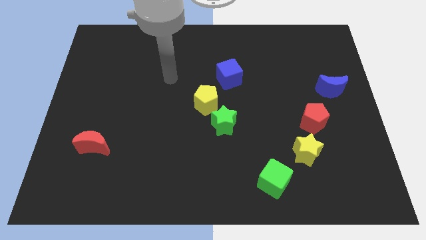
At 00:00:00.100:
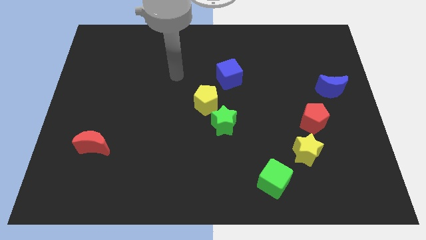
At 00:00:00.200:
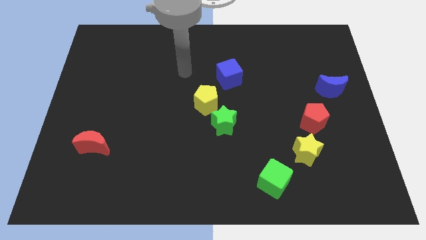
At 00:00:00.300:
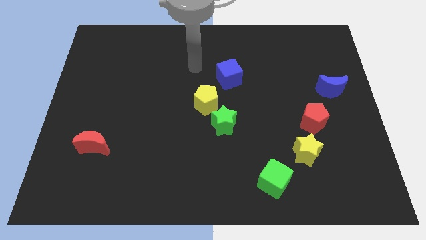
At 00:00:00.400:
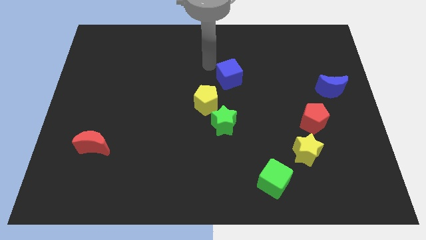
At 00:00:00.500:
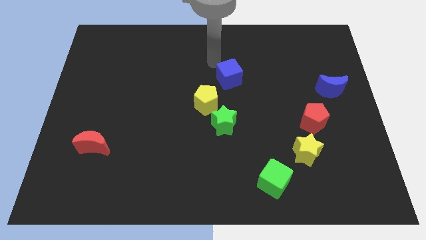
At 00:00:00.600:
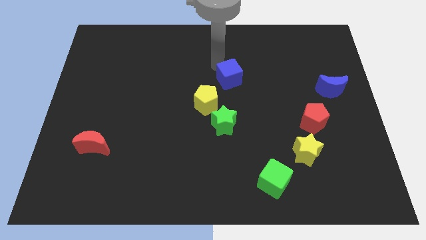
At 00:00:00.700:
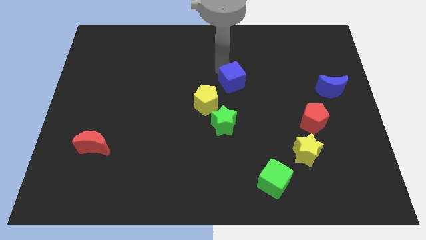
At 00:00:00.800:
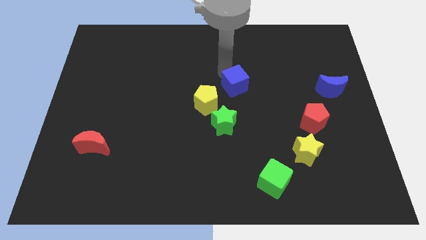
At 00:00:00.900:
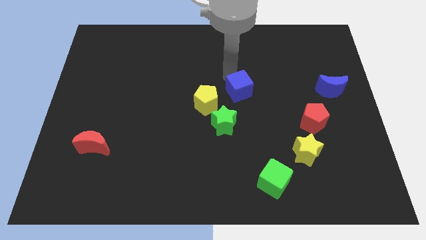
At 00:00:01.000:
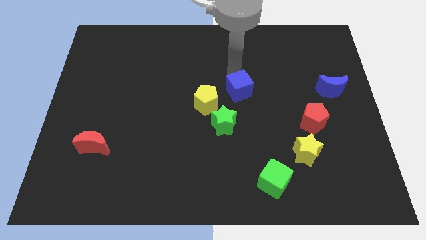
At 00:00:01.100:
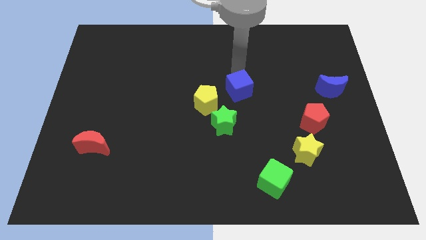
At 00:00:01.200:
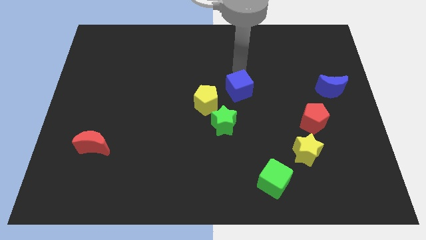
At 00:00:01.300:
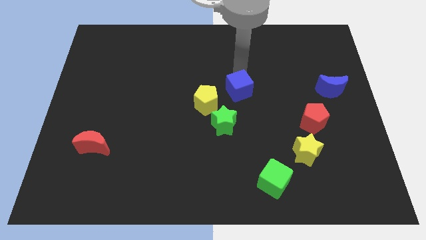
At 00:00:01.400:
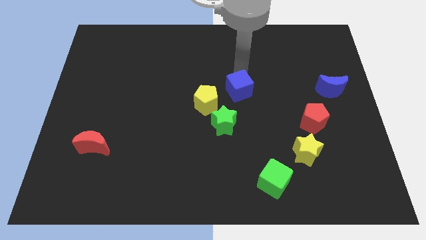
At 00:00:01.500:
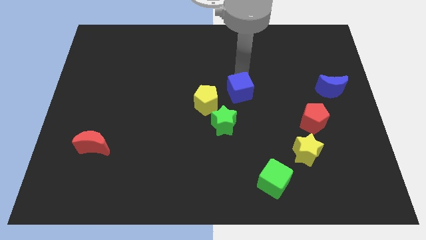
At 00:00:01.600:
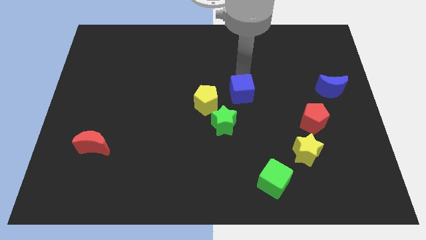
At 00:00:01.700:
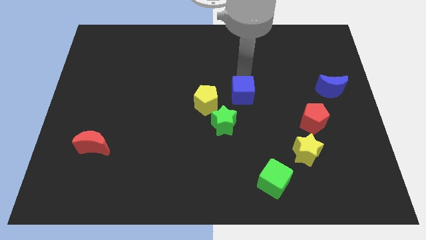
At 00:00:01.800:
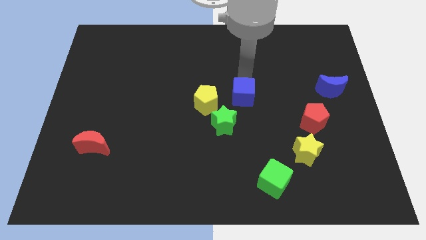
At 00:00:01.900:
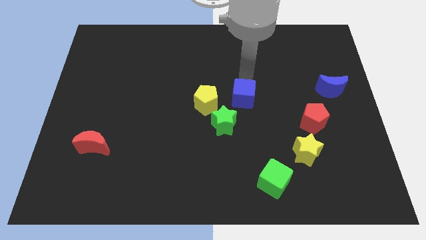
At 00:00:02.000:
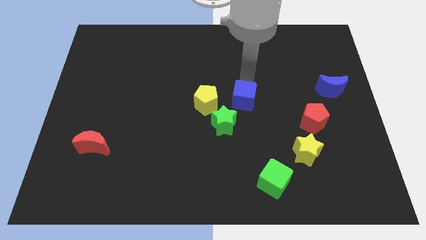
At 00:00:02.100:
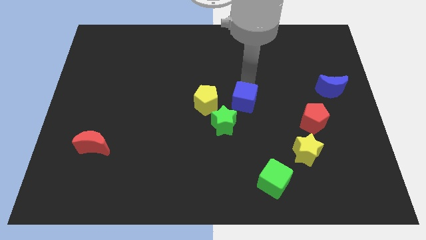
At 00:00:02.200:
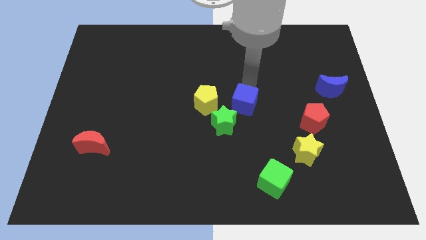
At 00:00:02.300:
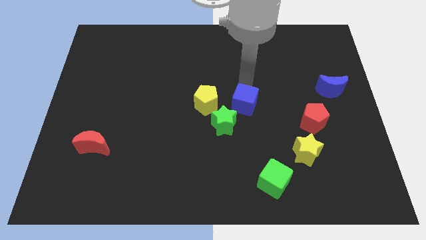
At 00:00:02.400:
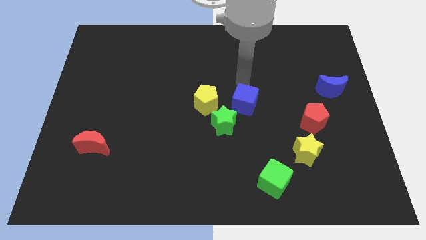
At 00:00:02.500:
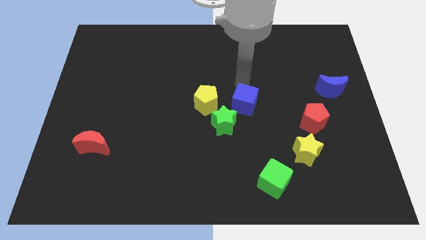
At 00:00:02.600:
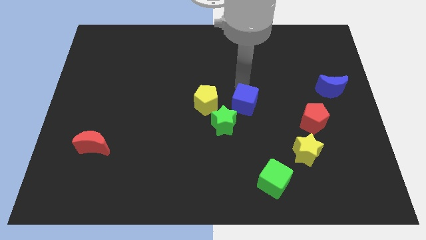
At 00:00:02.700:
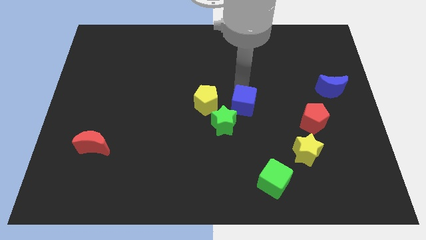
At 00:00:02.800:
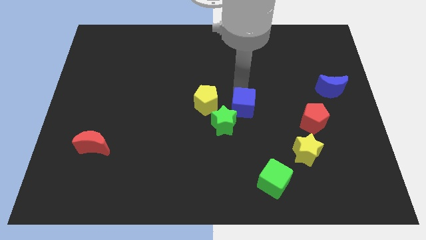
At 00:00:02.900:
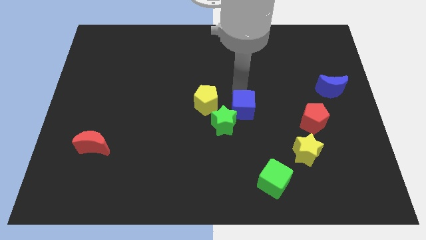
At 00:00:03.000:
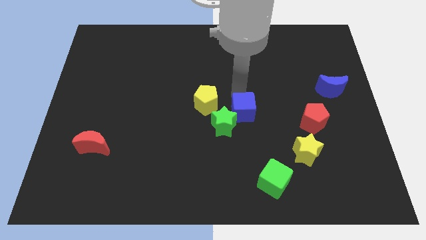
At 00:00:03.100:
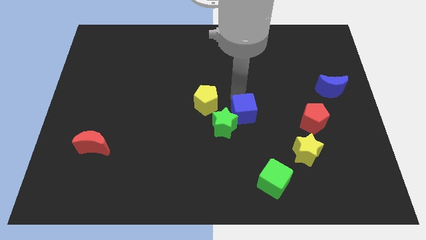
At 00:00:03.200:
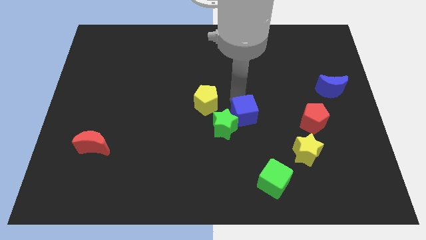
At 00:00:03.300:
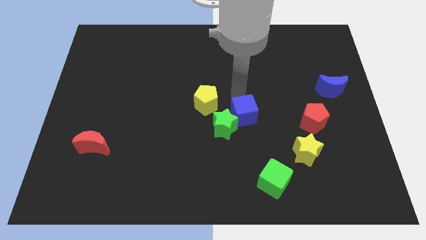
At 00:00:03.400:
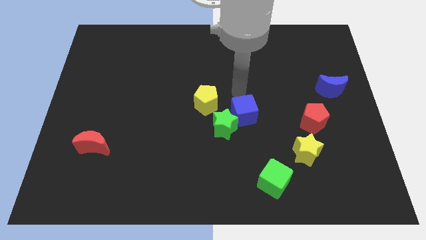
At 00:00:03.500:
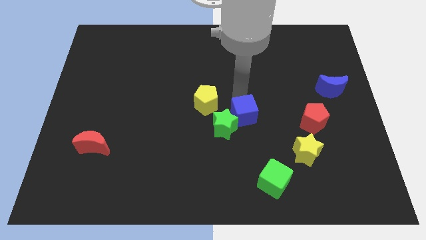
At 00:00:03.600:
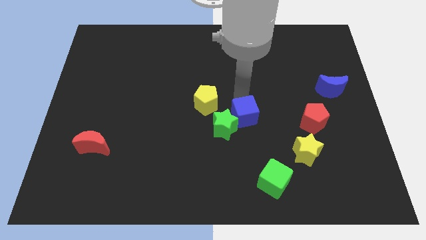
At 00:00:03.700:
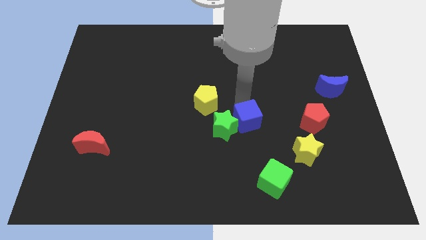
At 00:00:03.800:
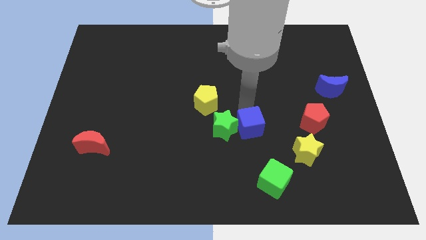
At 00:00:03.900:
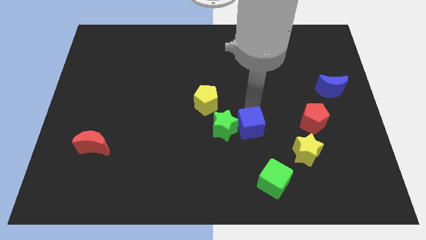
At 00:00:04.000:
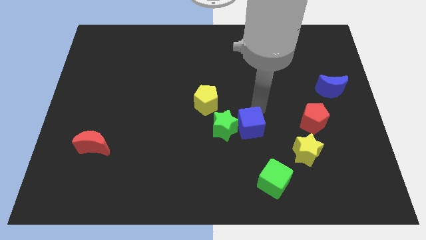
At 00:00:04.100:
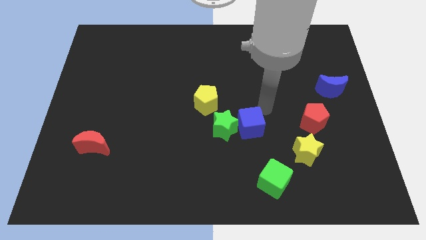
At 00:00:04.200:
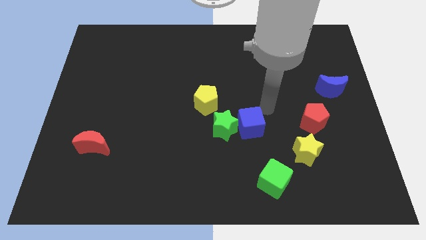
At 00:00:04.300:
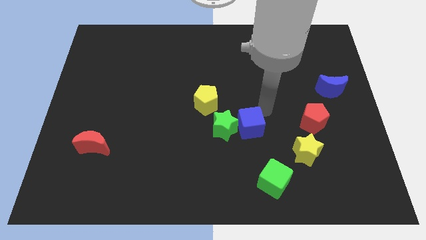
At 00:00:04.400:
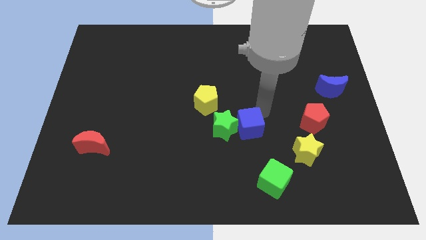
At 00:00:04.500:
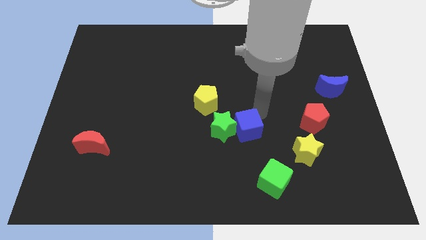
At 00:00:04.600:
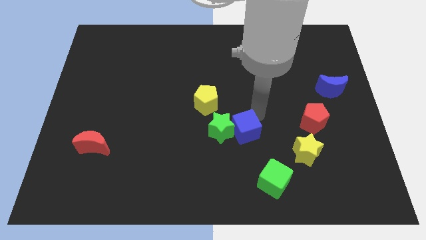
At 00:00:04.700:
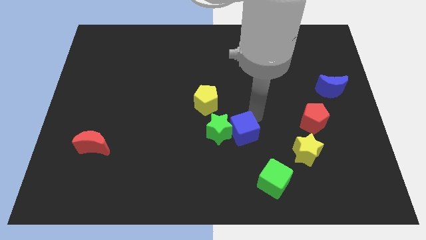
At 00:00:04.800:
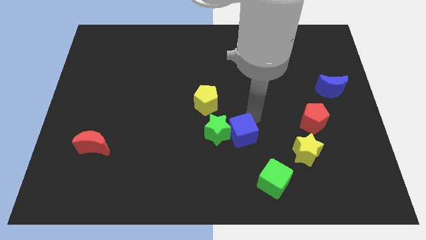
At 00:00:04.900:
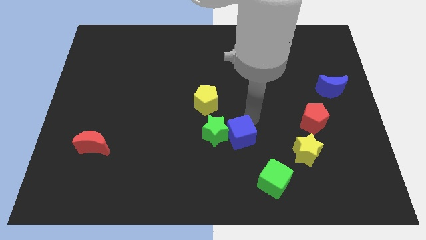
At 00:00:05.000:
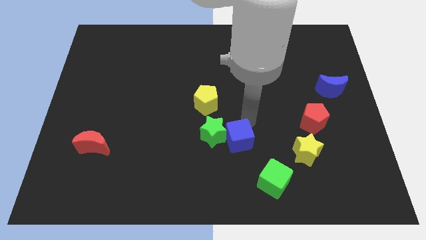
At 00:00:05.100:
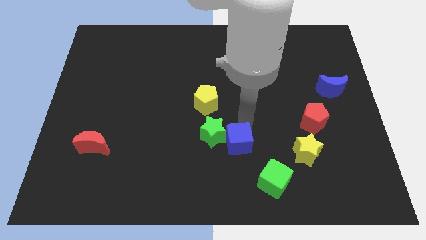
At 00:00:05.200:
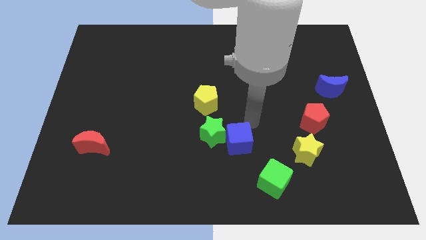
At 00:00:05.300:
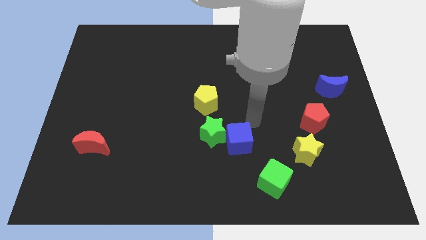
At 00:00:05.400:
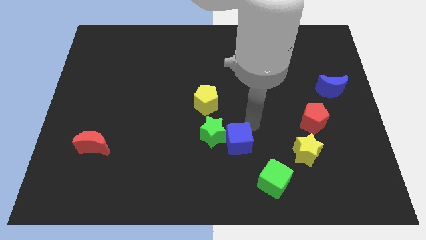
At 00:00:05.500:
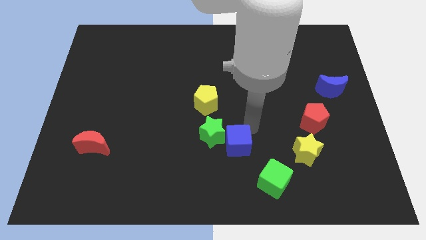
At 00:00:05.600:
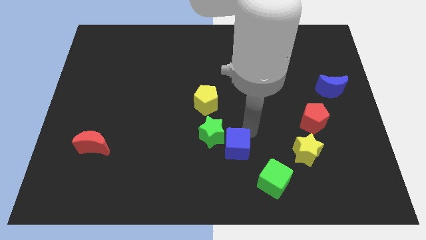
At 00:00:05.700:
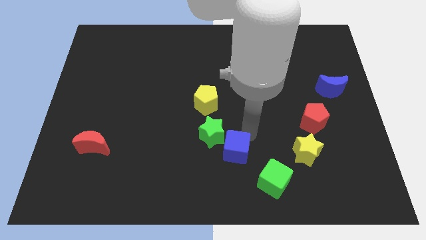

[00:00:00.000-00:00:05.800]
slide the blue cube to the bottom side of the green star

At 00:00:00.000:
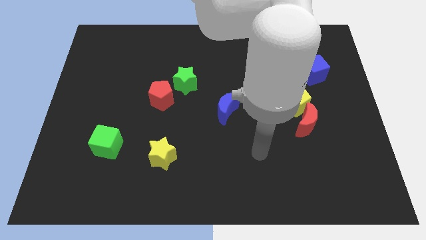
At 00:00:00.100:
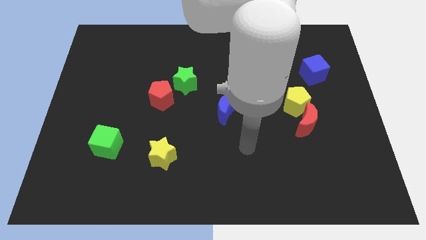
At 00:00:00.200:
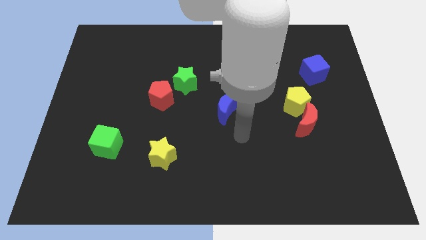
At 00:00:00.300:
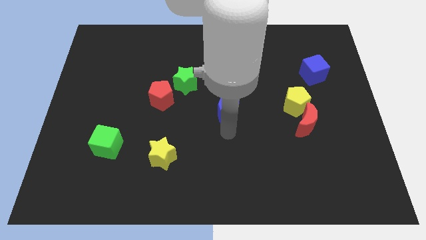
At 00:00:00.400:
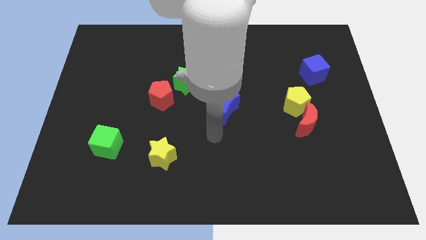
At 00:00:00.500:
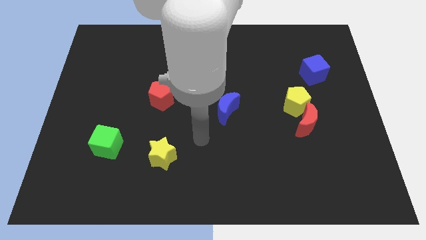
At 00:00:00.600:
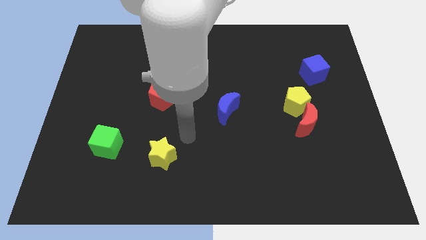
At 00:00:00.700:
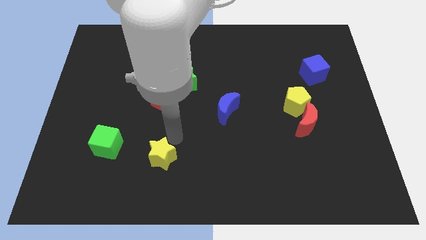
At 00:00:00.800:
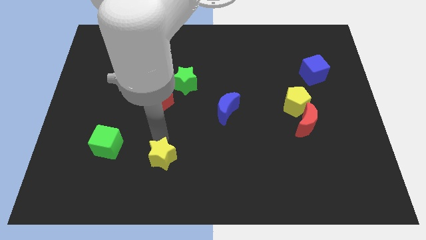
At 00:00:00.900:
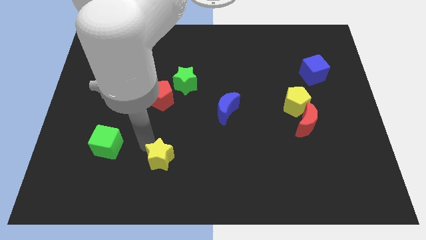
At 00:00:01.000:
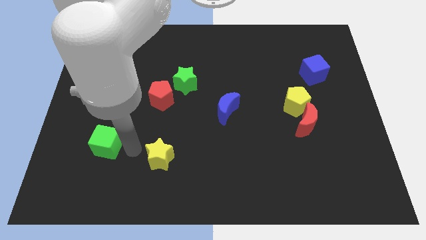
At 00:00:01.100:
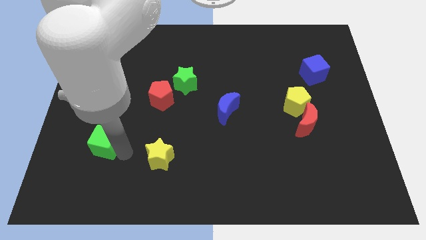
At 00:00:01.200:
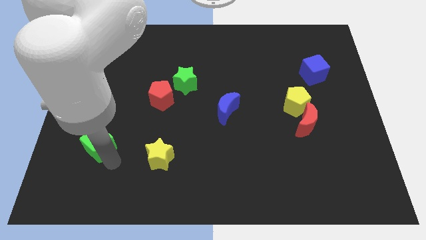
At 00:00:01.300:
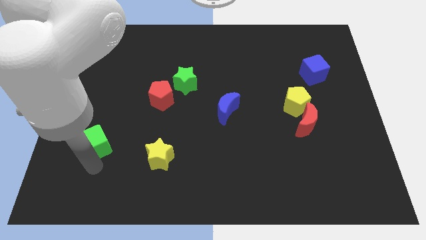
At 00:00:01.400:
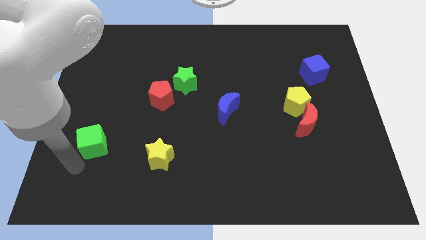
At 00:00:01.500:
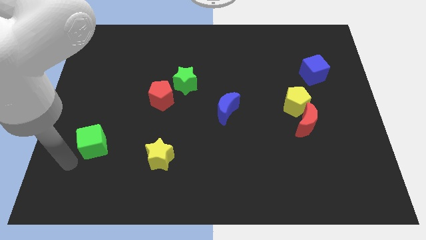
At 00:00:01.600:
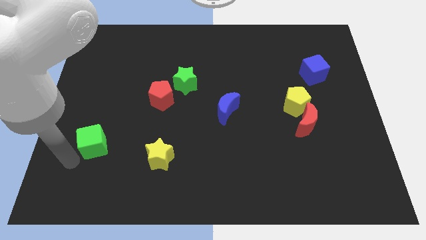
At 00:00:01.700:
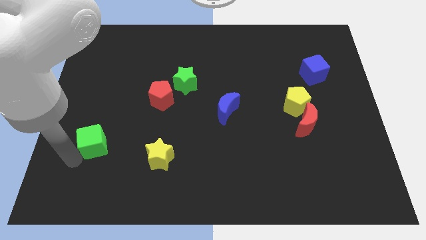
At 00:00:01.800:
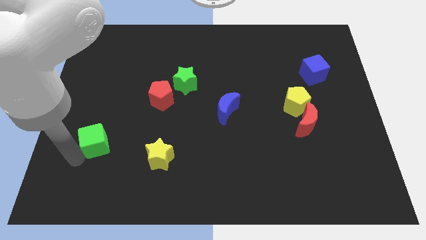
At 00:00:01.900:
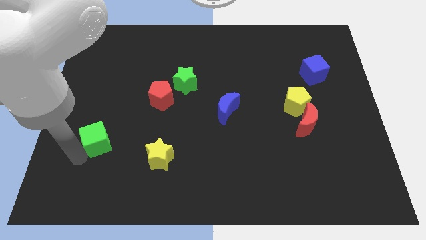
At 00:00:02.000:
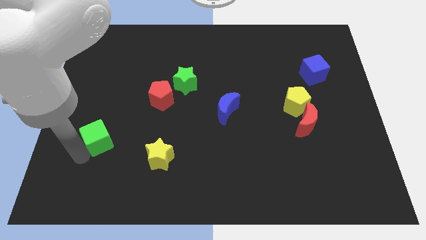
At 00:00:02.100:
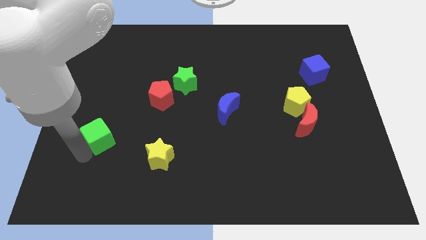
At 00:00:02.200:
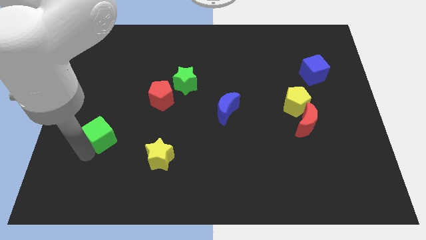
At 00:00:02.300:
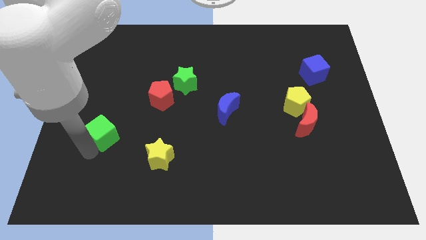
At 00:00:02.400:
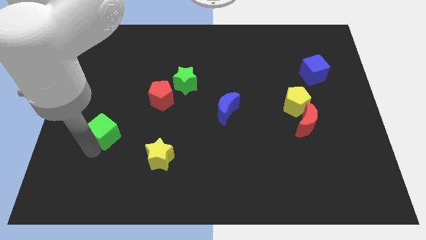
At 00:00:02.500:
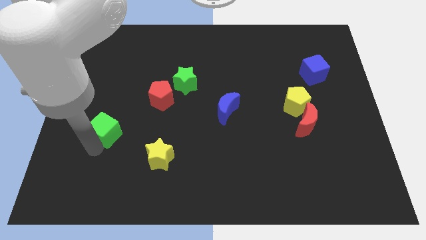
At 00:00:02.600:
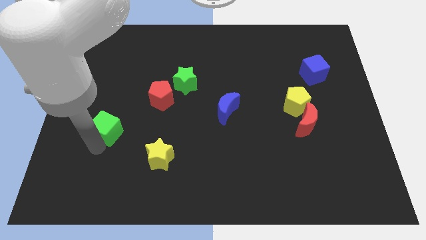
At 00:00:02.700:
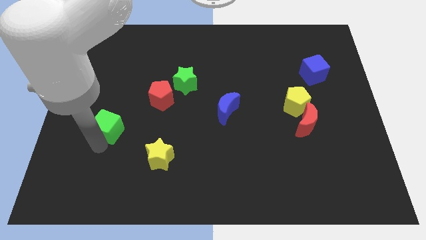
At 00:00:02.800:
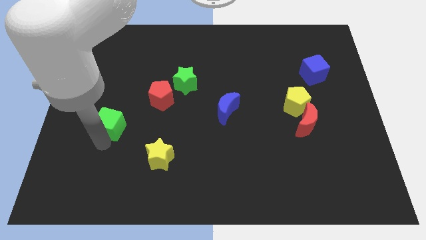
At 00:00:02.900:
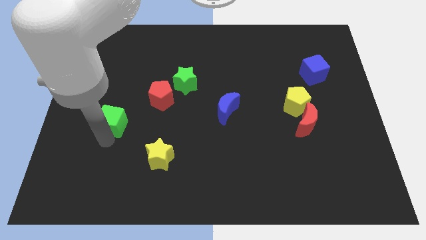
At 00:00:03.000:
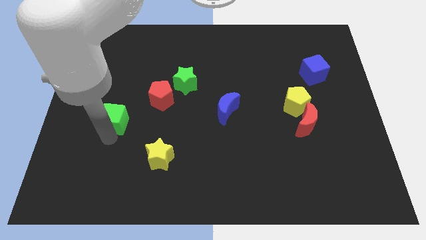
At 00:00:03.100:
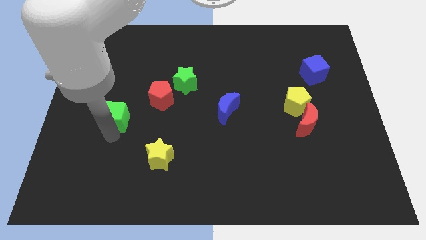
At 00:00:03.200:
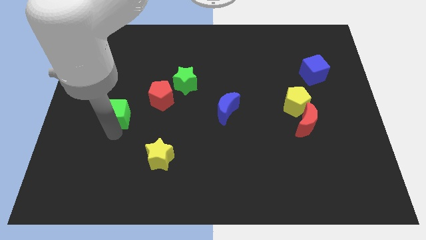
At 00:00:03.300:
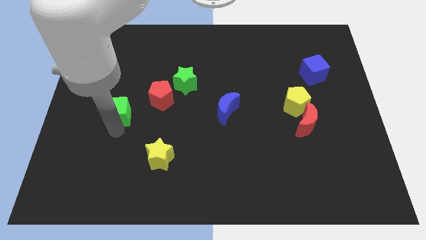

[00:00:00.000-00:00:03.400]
move the green cube left of the red pentagon
